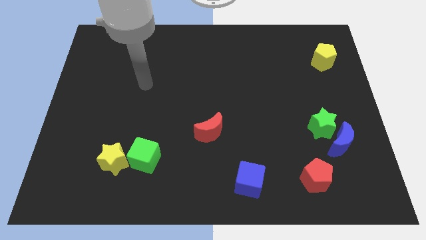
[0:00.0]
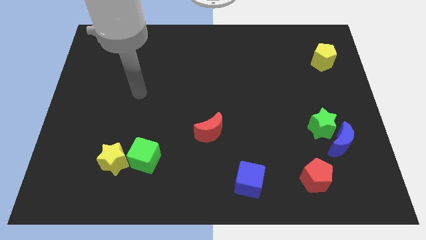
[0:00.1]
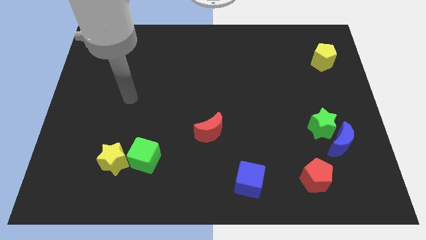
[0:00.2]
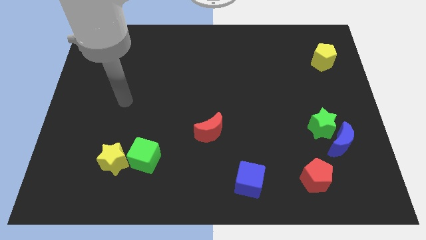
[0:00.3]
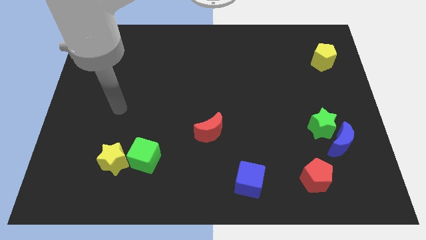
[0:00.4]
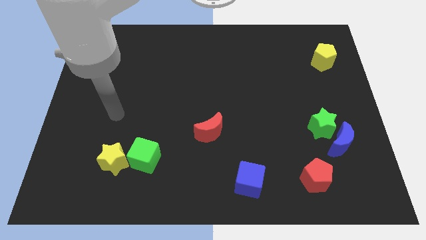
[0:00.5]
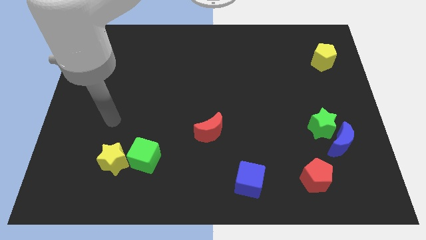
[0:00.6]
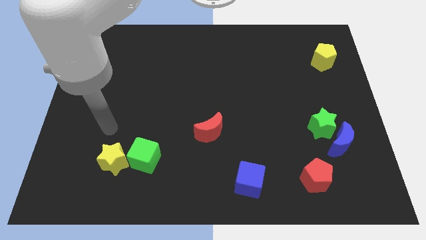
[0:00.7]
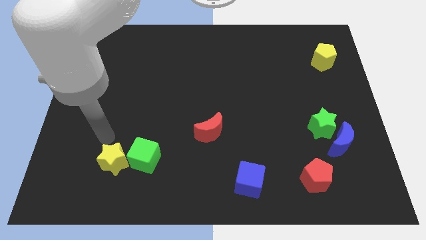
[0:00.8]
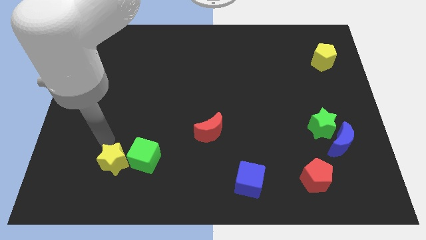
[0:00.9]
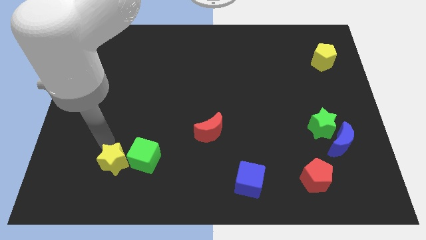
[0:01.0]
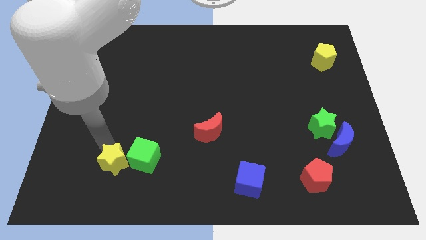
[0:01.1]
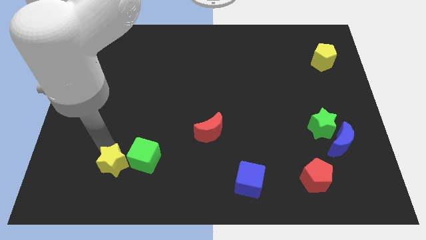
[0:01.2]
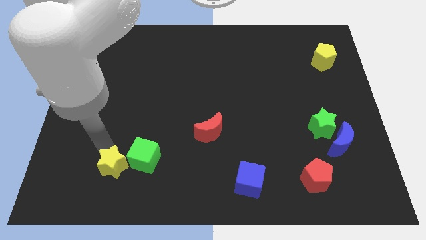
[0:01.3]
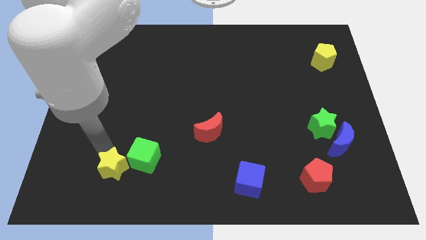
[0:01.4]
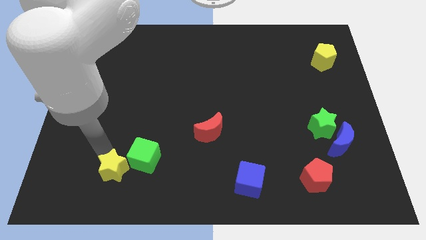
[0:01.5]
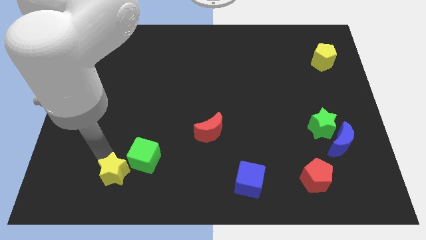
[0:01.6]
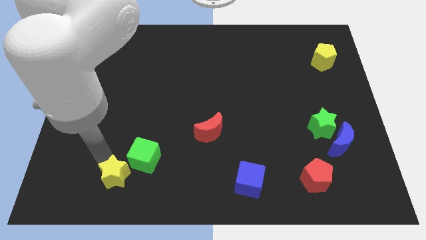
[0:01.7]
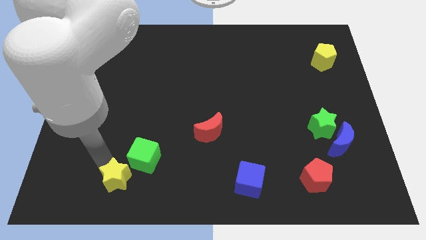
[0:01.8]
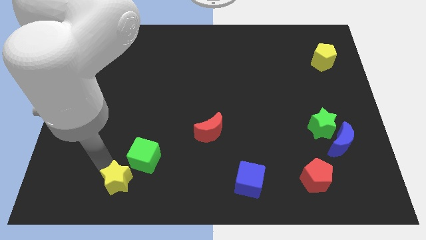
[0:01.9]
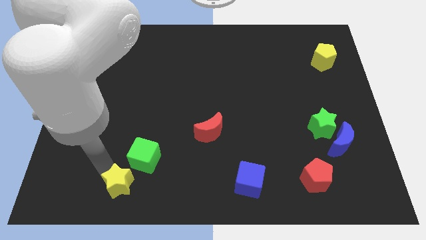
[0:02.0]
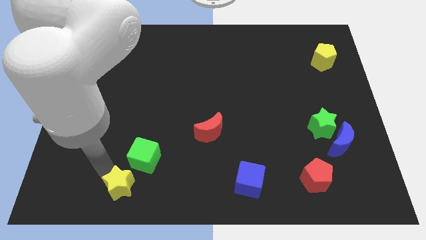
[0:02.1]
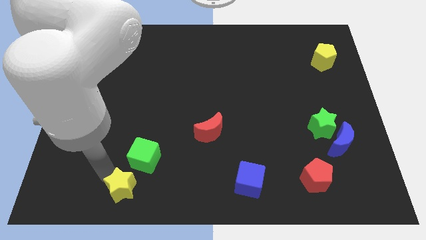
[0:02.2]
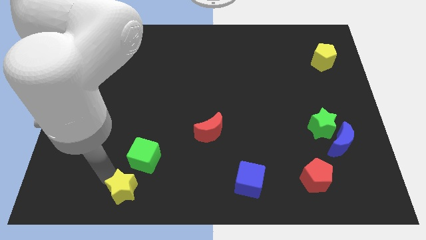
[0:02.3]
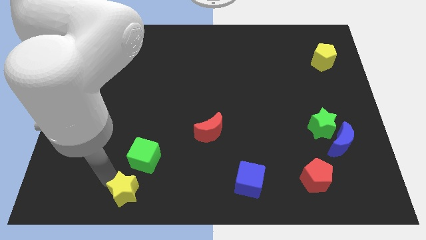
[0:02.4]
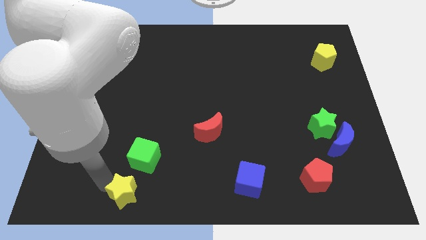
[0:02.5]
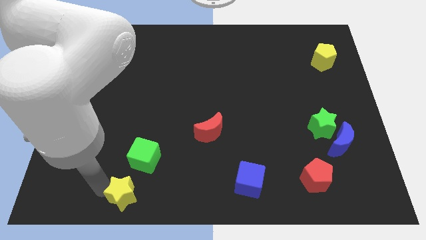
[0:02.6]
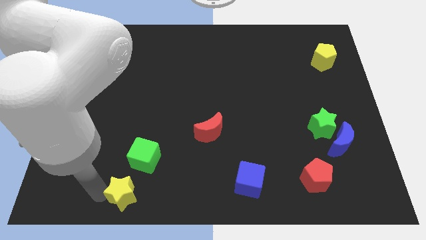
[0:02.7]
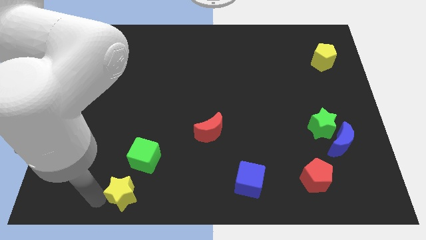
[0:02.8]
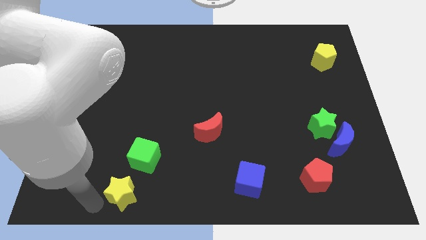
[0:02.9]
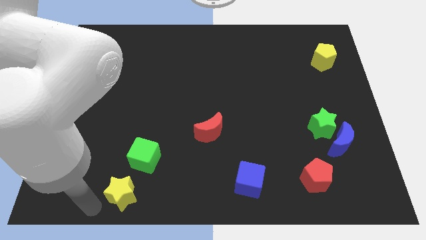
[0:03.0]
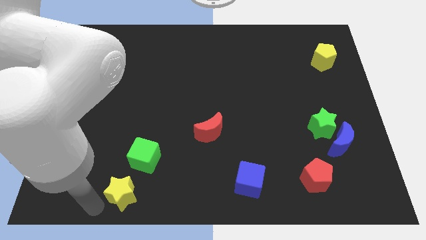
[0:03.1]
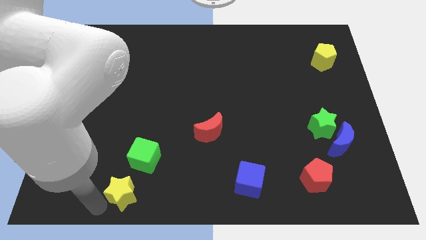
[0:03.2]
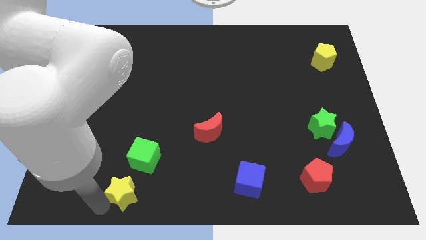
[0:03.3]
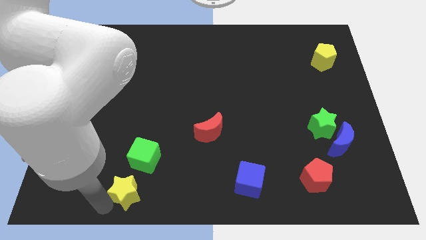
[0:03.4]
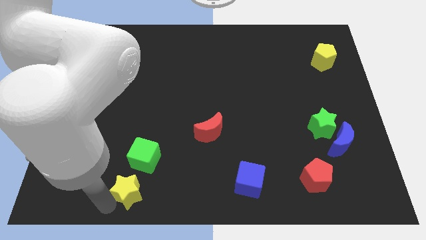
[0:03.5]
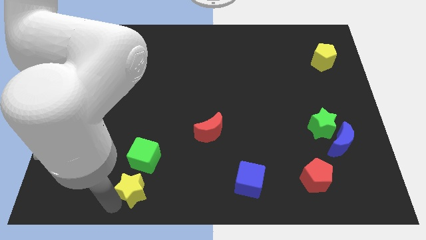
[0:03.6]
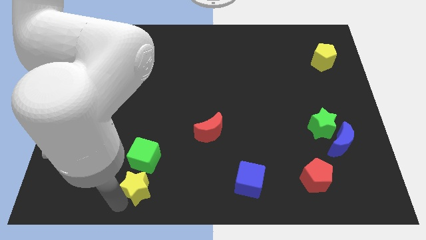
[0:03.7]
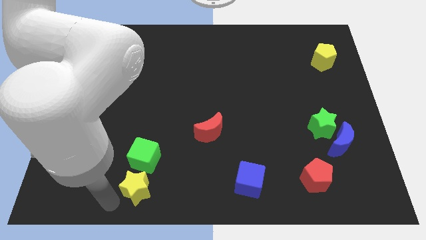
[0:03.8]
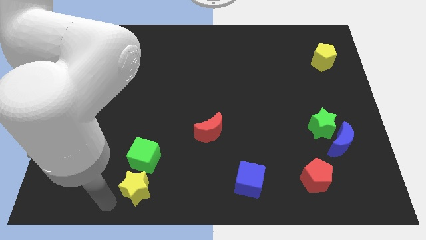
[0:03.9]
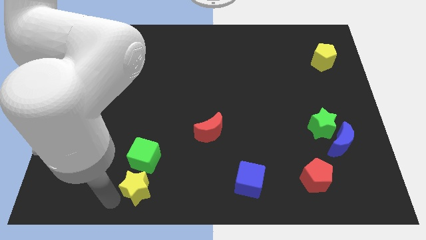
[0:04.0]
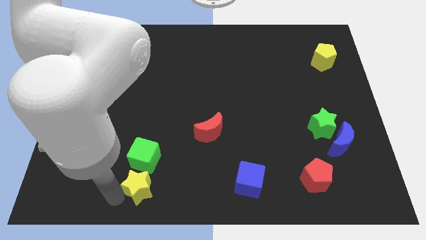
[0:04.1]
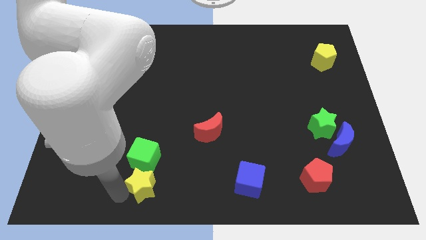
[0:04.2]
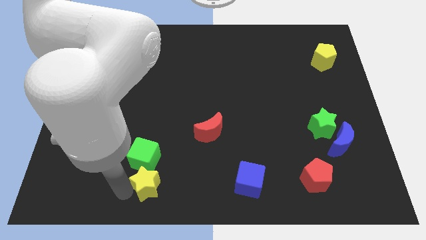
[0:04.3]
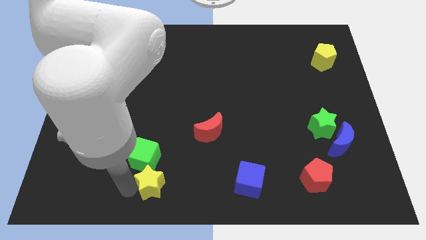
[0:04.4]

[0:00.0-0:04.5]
move the yellow star to the right a bit

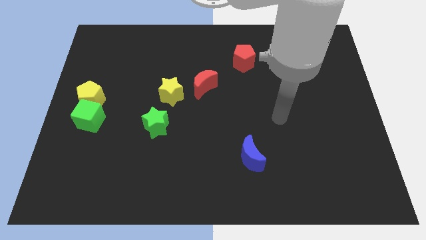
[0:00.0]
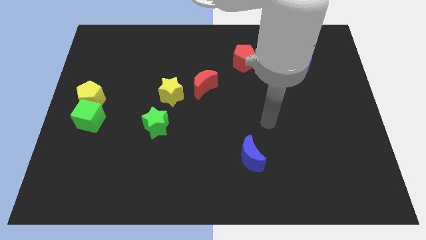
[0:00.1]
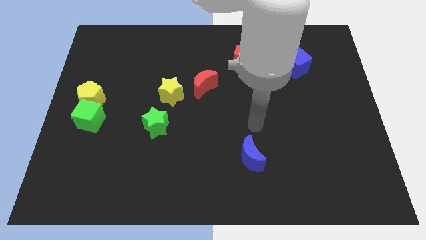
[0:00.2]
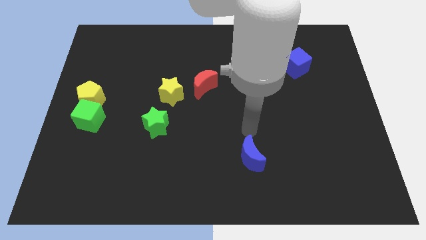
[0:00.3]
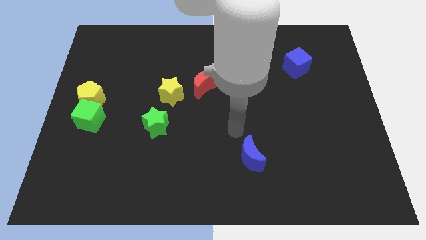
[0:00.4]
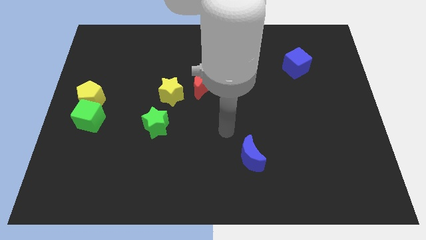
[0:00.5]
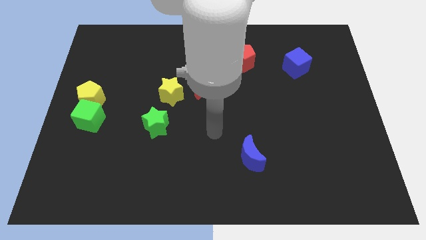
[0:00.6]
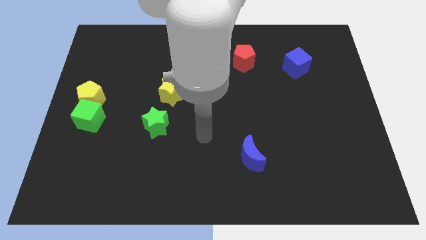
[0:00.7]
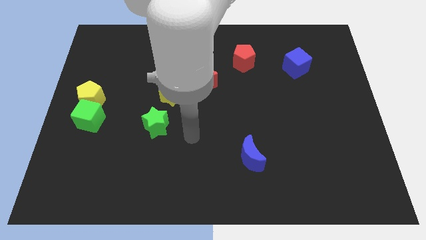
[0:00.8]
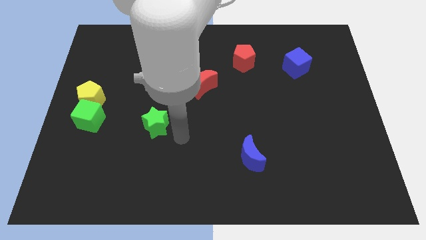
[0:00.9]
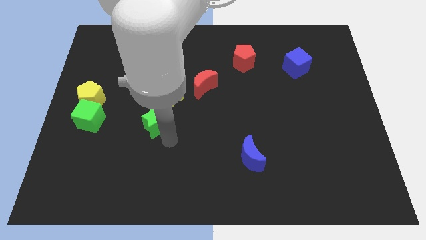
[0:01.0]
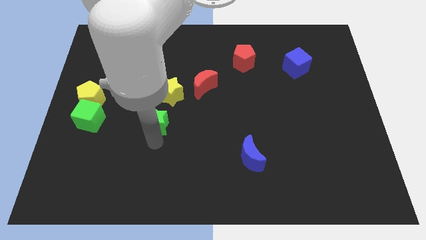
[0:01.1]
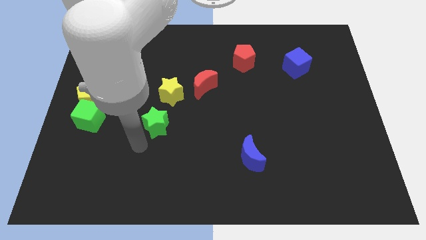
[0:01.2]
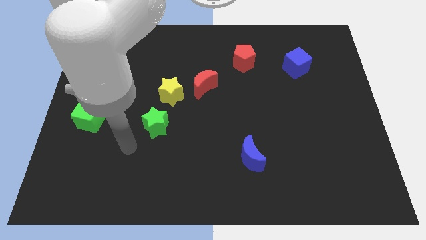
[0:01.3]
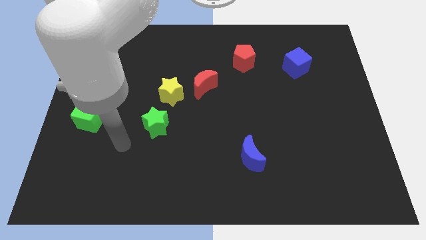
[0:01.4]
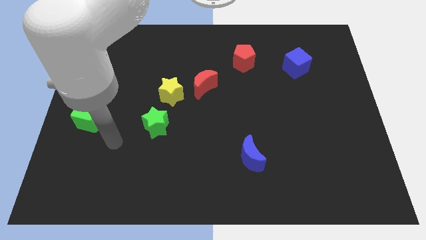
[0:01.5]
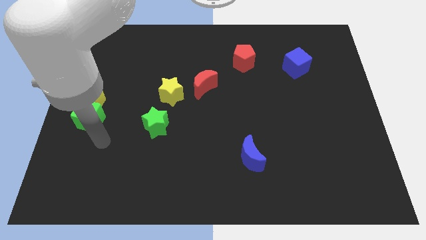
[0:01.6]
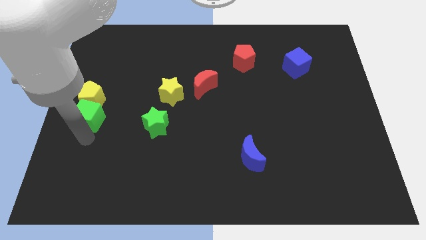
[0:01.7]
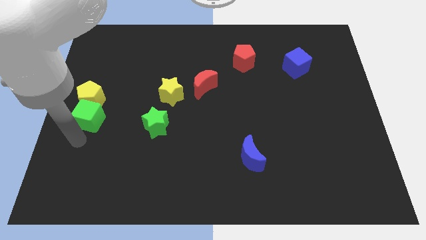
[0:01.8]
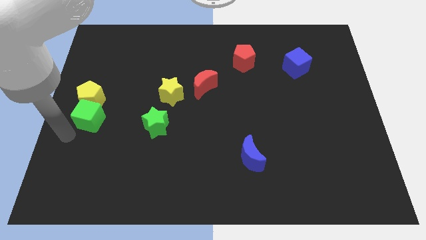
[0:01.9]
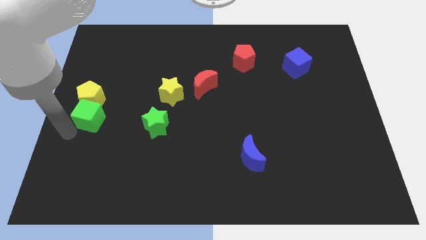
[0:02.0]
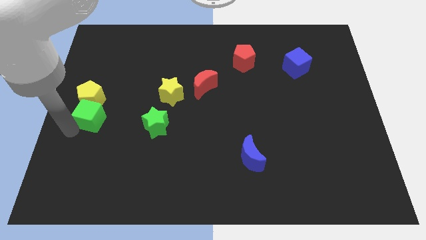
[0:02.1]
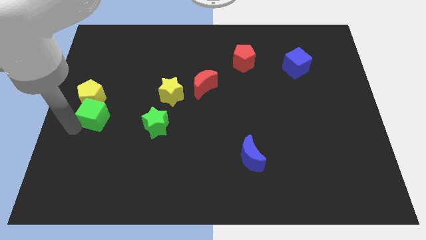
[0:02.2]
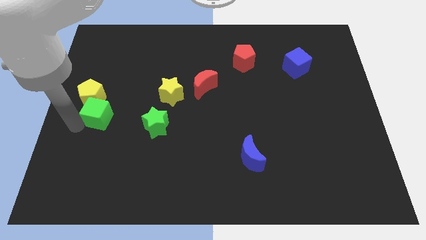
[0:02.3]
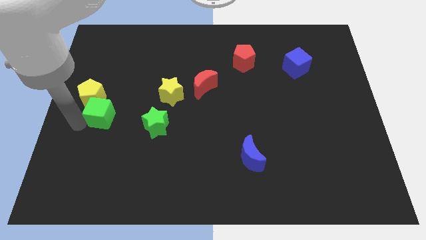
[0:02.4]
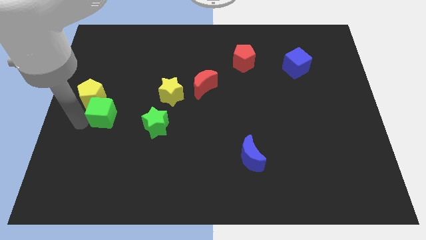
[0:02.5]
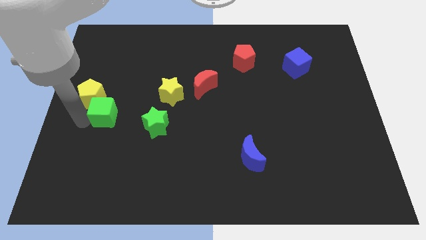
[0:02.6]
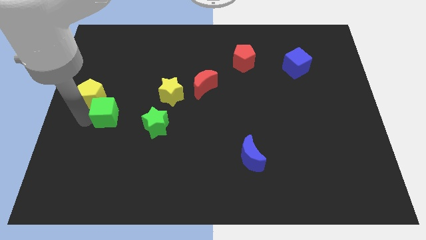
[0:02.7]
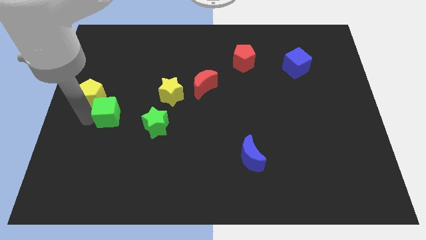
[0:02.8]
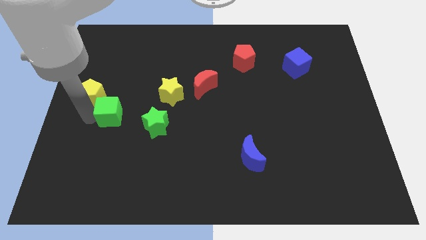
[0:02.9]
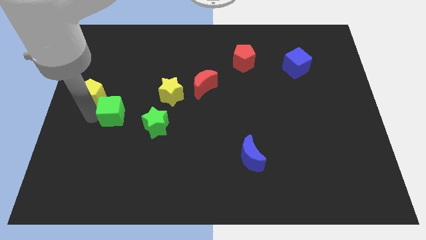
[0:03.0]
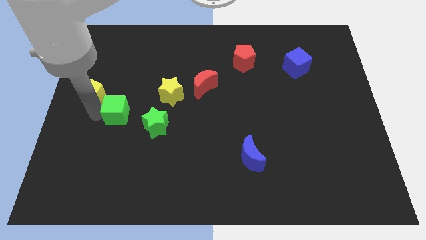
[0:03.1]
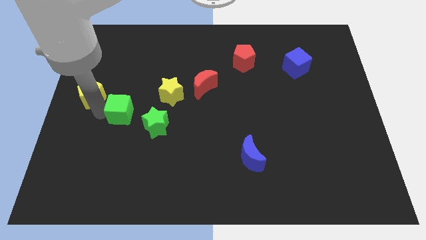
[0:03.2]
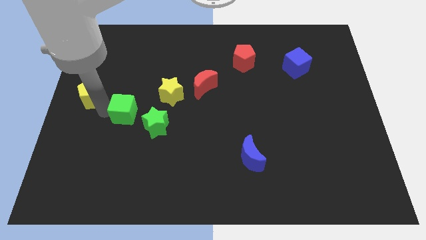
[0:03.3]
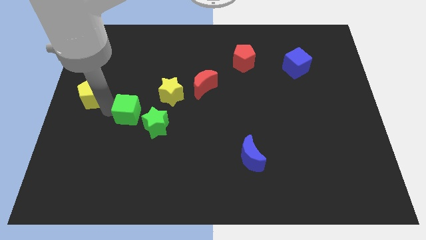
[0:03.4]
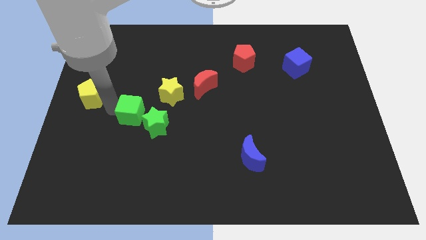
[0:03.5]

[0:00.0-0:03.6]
slightly move the green cube upwards and then right

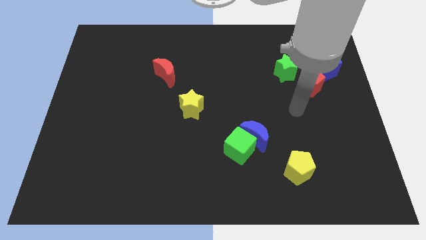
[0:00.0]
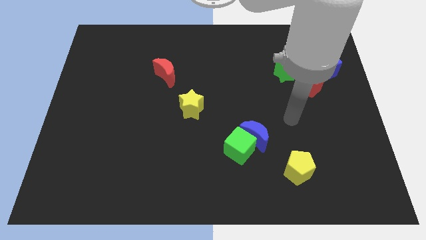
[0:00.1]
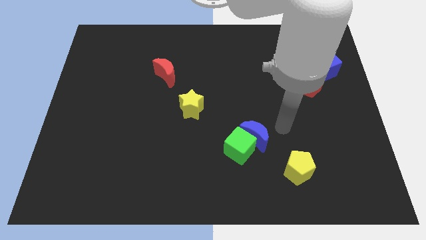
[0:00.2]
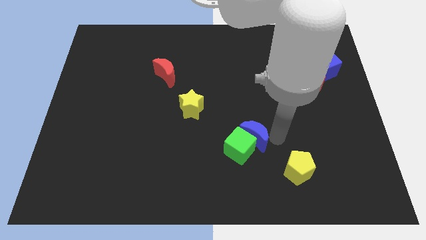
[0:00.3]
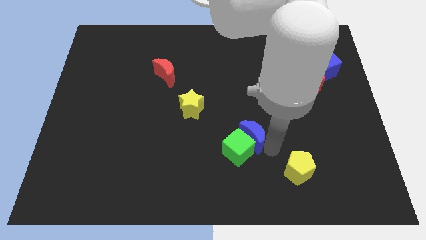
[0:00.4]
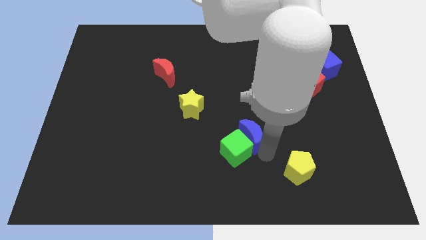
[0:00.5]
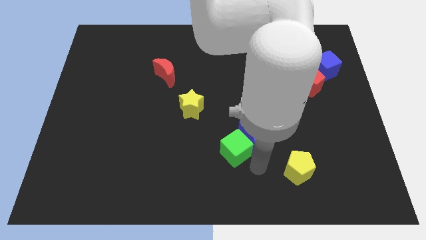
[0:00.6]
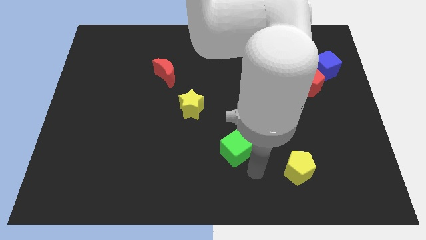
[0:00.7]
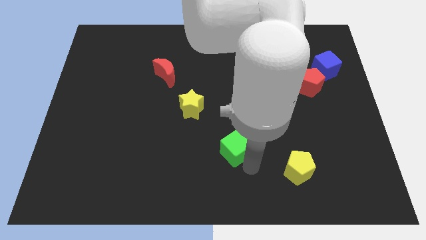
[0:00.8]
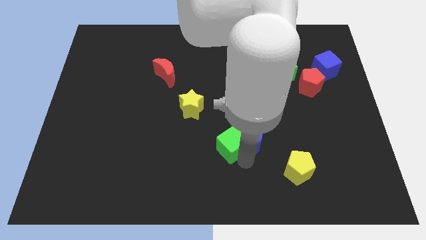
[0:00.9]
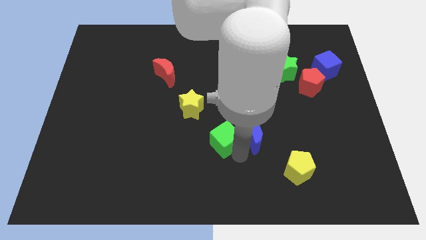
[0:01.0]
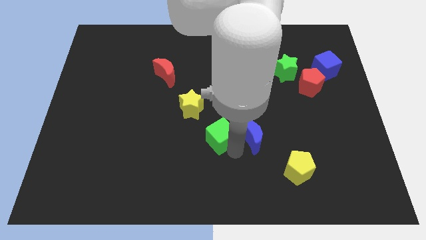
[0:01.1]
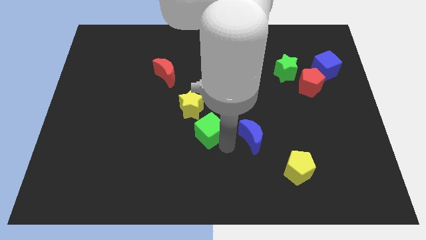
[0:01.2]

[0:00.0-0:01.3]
slide the green cube a little bit up and left diagonally
